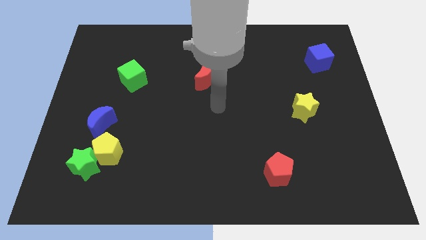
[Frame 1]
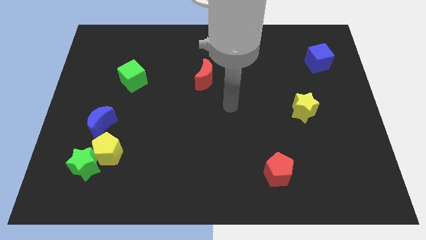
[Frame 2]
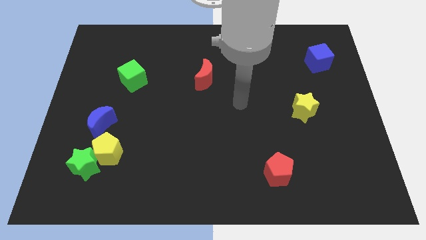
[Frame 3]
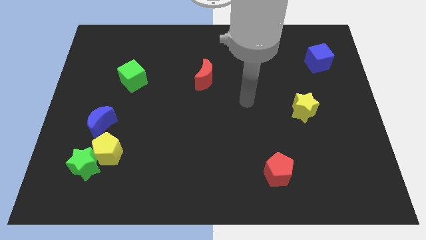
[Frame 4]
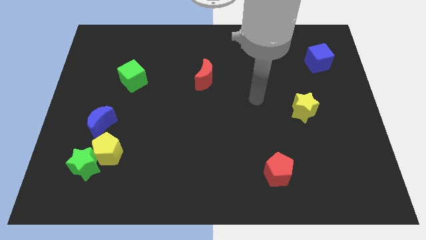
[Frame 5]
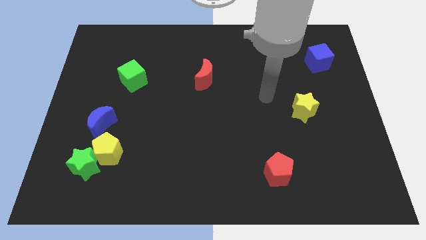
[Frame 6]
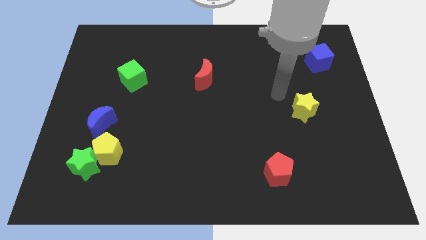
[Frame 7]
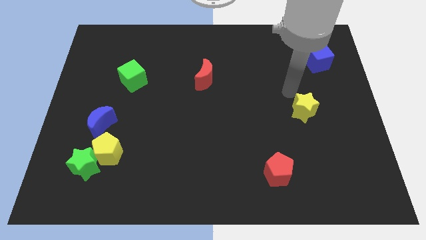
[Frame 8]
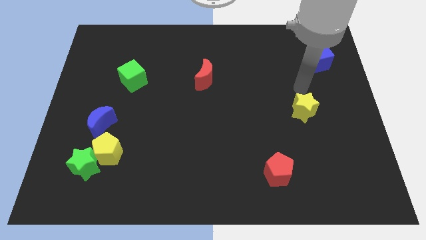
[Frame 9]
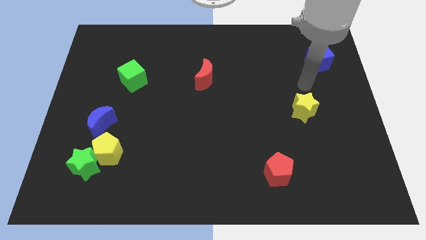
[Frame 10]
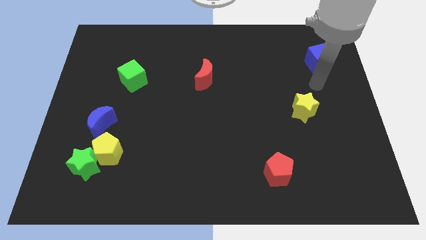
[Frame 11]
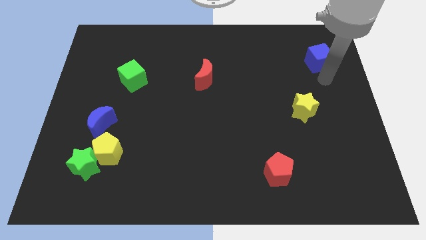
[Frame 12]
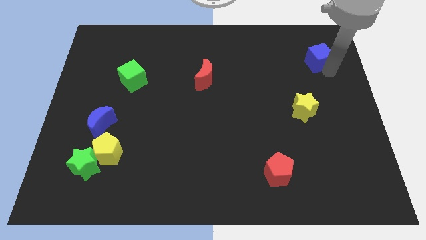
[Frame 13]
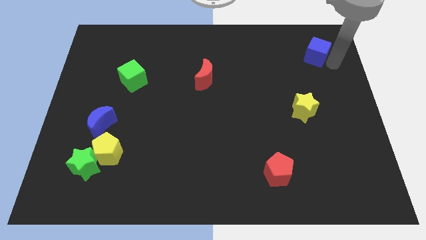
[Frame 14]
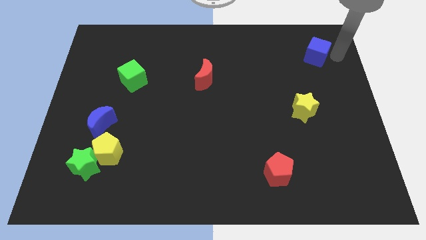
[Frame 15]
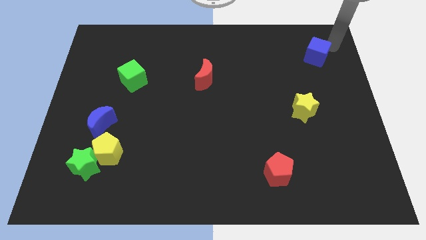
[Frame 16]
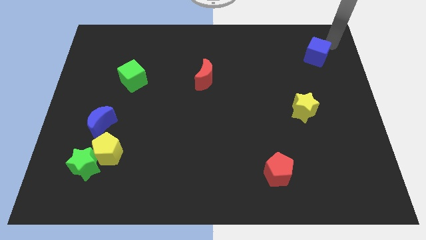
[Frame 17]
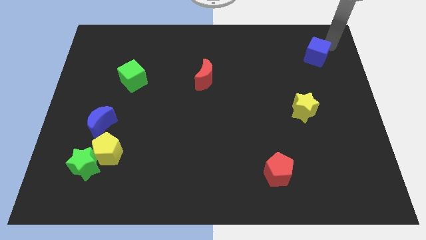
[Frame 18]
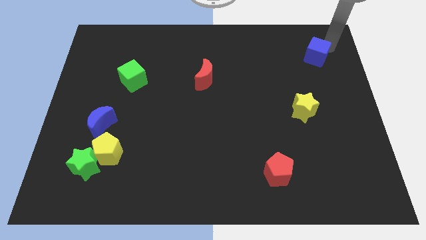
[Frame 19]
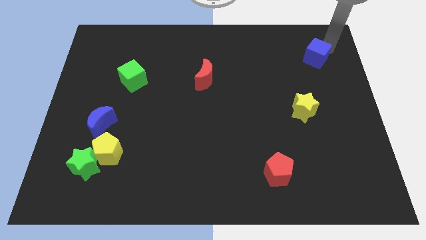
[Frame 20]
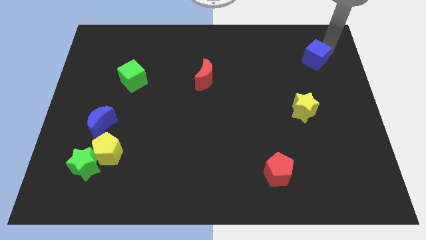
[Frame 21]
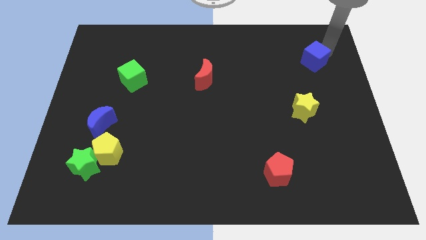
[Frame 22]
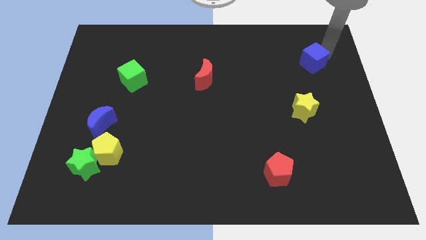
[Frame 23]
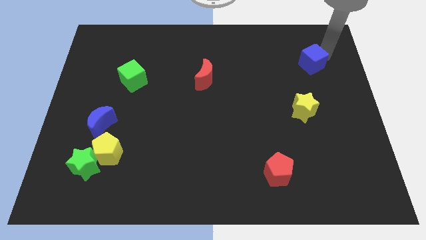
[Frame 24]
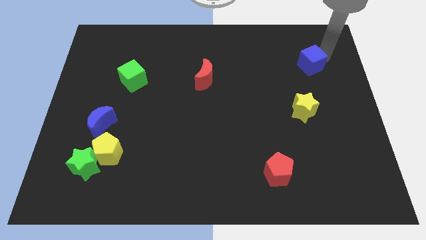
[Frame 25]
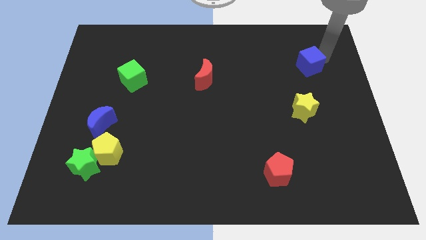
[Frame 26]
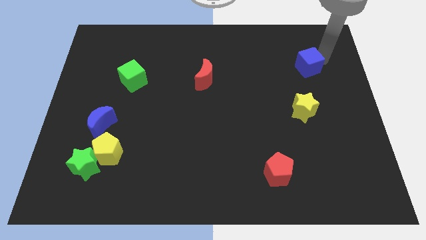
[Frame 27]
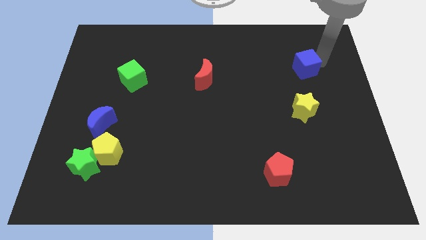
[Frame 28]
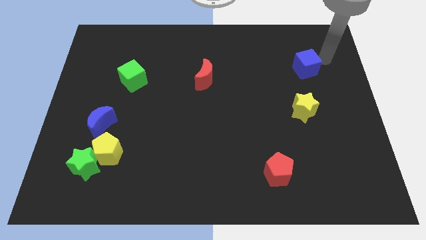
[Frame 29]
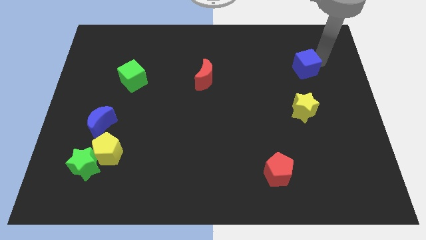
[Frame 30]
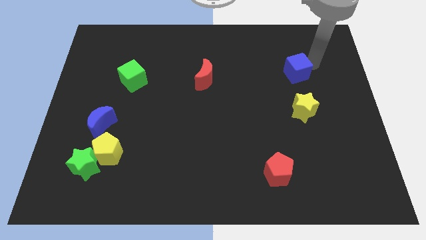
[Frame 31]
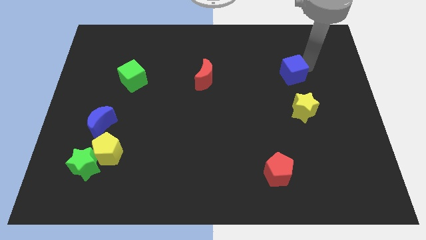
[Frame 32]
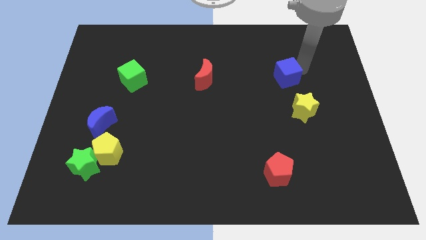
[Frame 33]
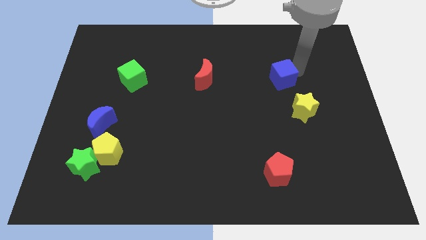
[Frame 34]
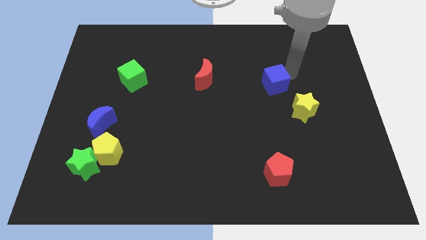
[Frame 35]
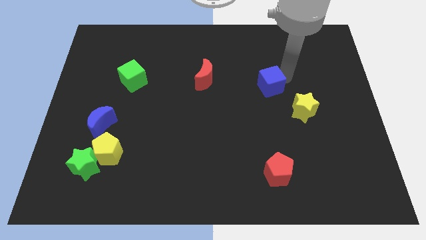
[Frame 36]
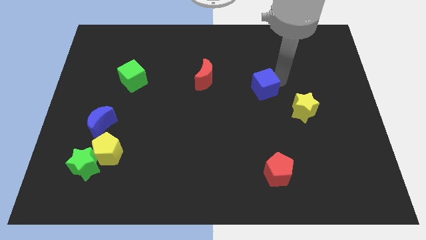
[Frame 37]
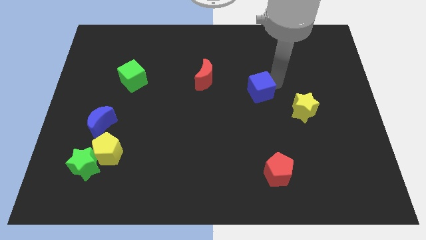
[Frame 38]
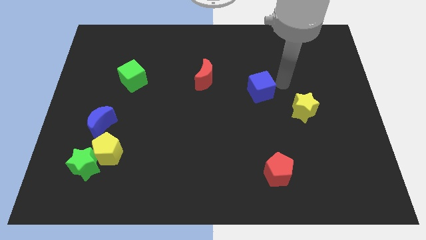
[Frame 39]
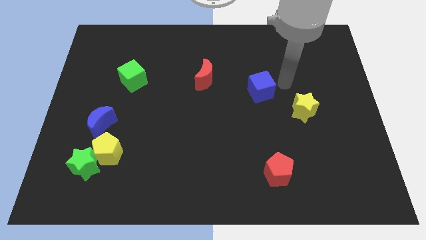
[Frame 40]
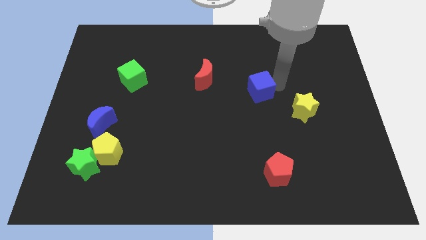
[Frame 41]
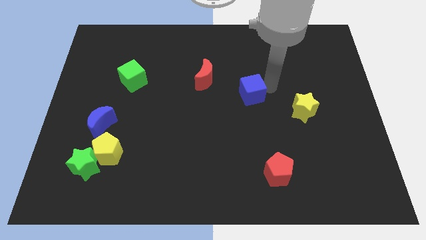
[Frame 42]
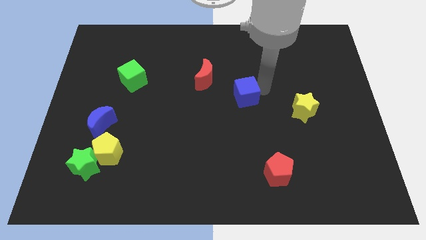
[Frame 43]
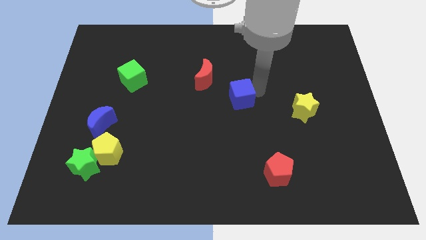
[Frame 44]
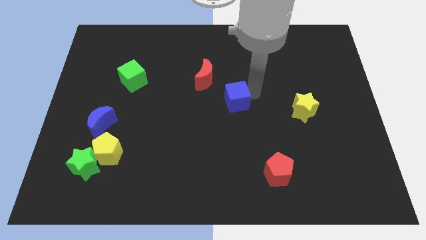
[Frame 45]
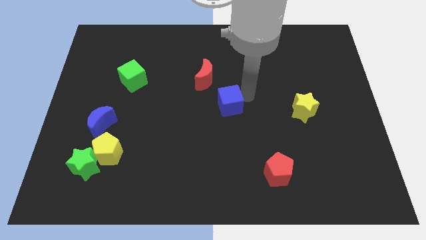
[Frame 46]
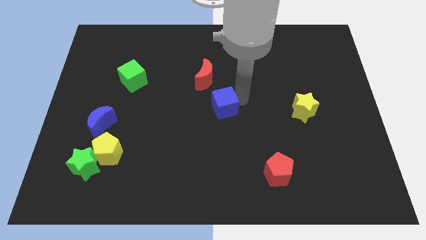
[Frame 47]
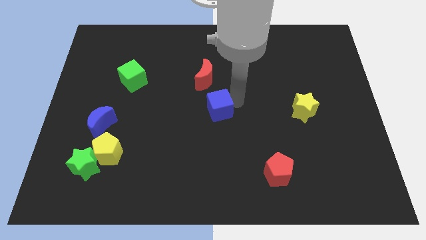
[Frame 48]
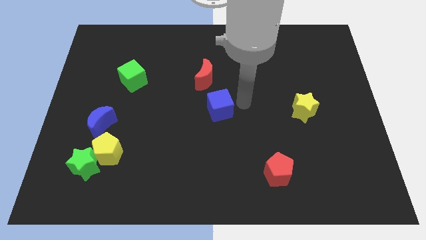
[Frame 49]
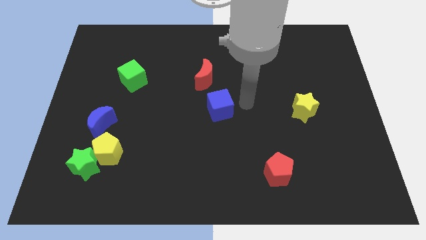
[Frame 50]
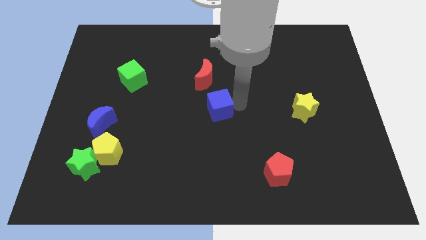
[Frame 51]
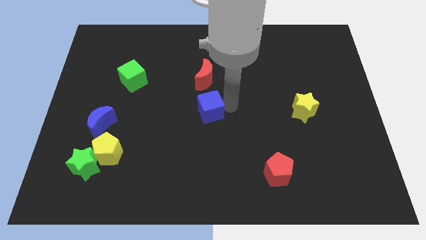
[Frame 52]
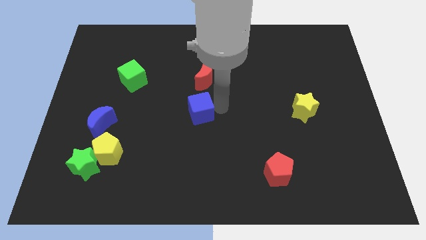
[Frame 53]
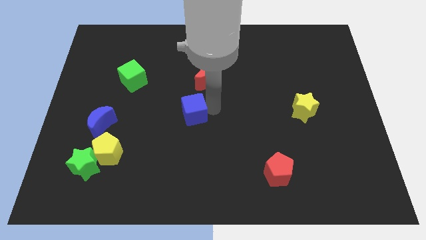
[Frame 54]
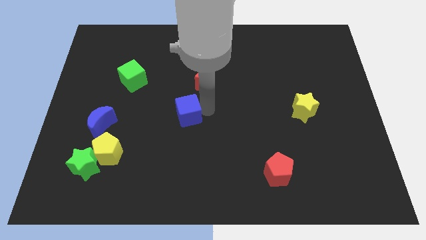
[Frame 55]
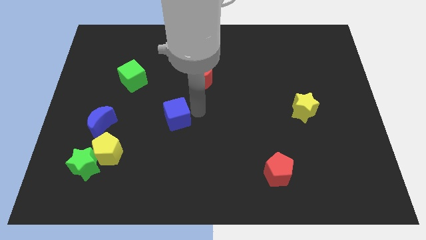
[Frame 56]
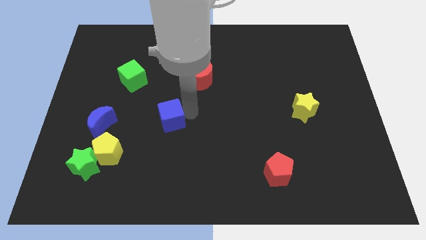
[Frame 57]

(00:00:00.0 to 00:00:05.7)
push the blue cube to the right side of the blue moon

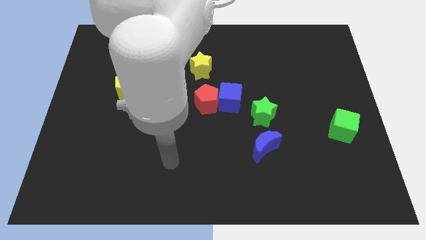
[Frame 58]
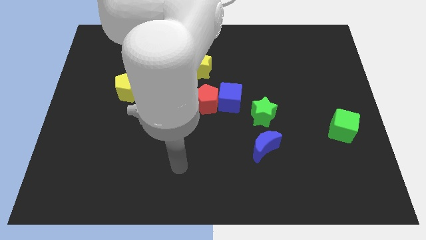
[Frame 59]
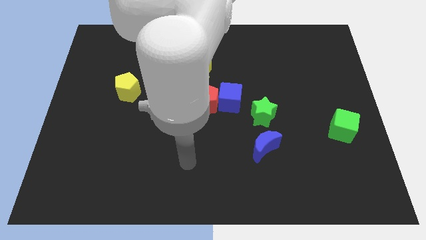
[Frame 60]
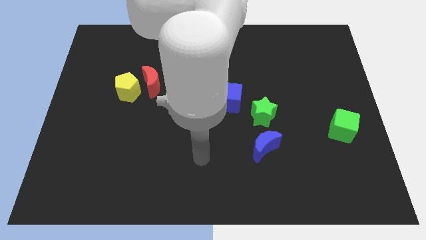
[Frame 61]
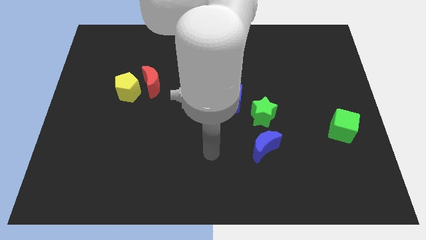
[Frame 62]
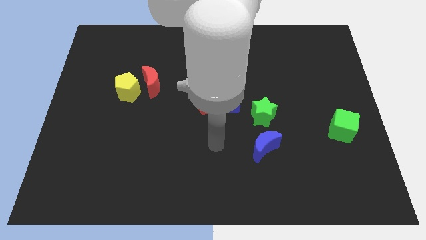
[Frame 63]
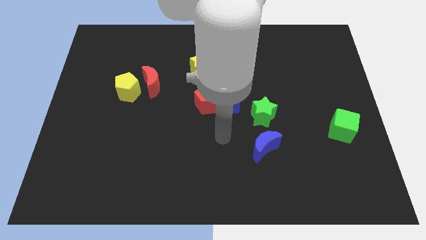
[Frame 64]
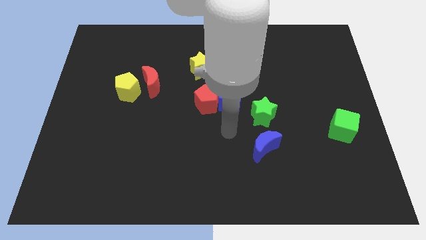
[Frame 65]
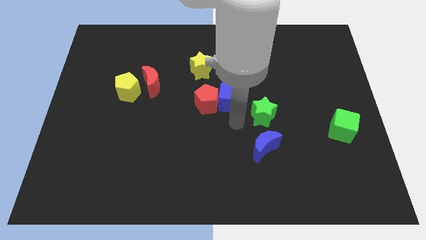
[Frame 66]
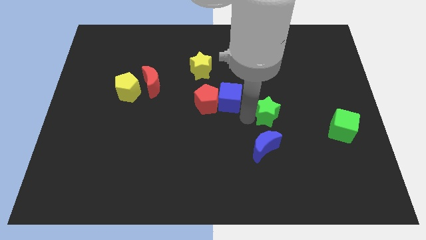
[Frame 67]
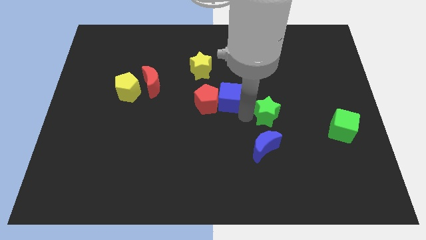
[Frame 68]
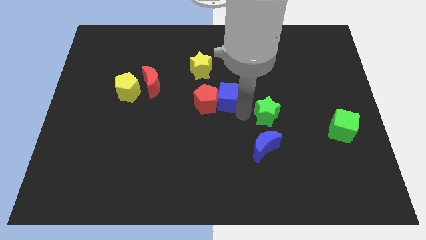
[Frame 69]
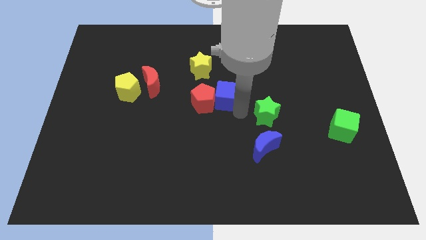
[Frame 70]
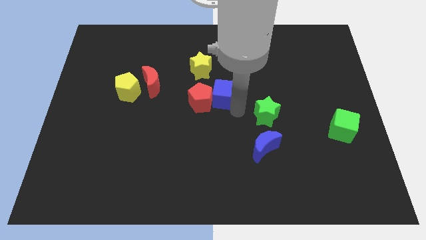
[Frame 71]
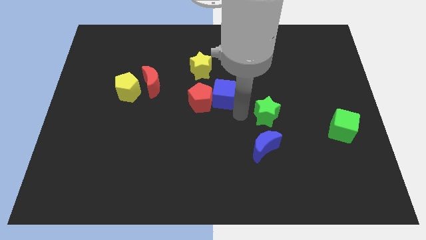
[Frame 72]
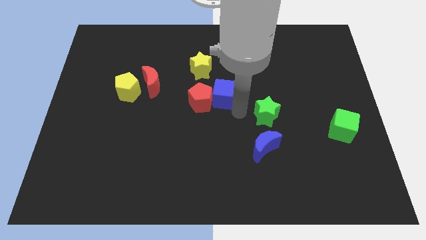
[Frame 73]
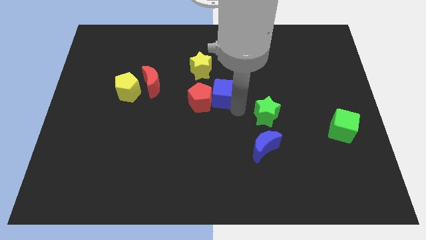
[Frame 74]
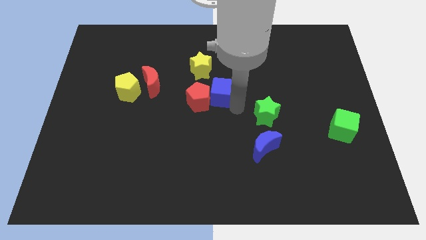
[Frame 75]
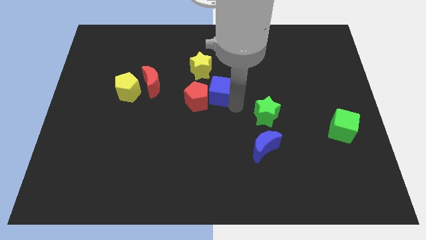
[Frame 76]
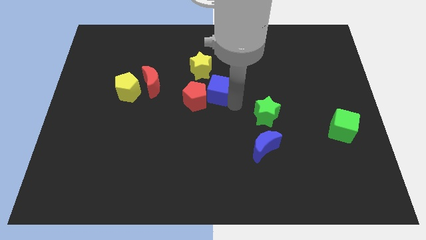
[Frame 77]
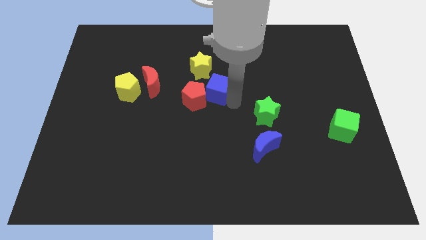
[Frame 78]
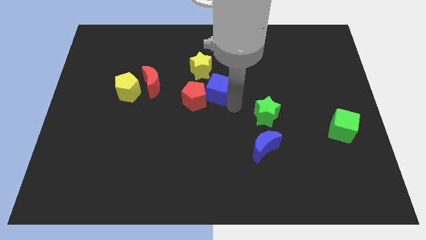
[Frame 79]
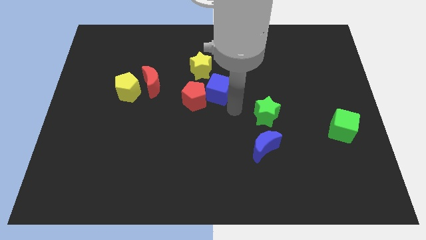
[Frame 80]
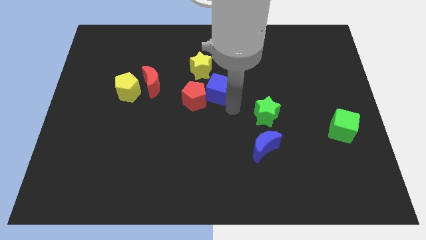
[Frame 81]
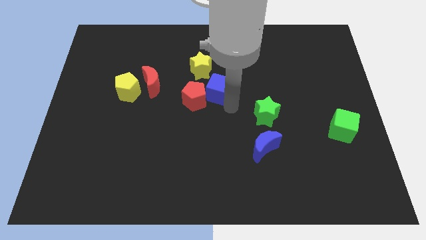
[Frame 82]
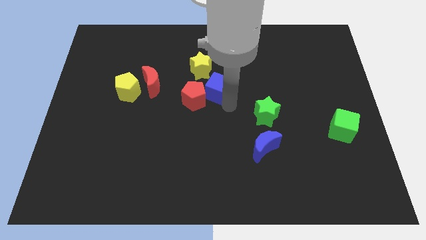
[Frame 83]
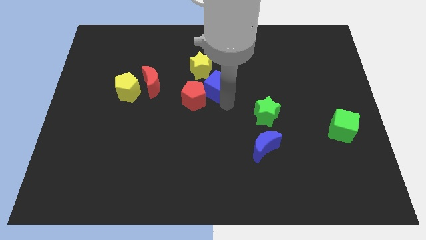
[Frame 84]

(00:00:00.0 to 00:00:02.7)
move the blue cube to the right side of the red moon
